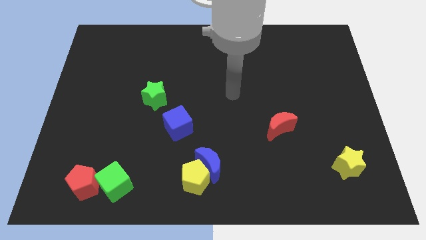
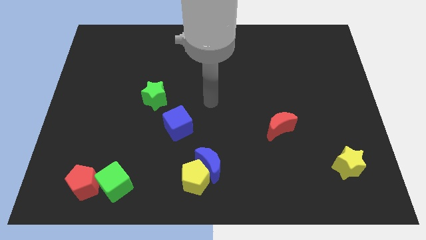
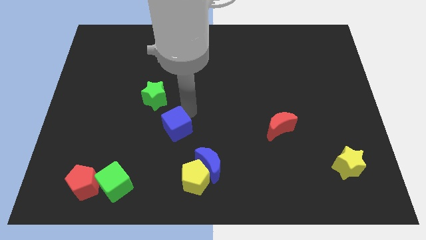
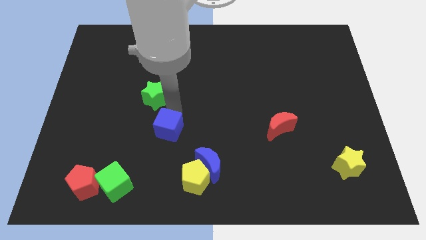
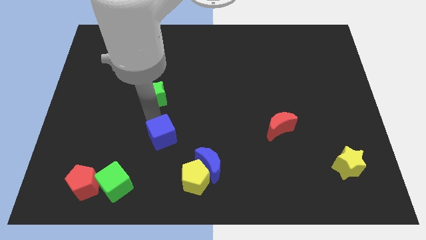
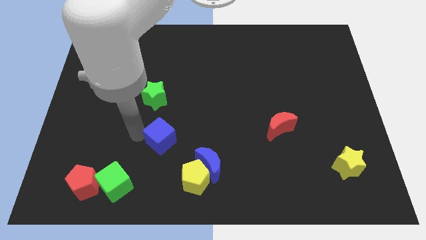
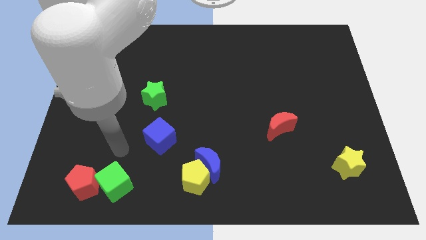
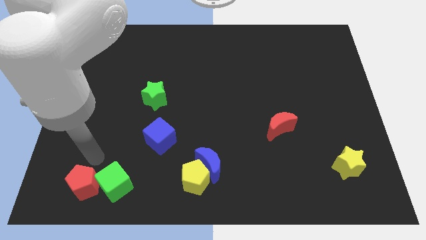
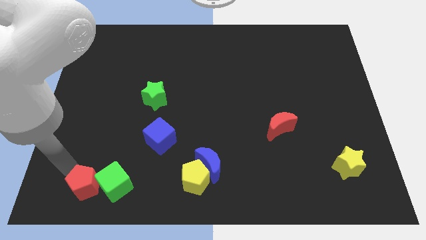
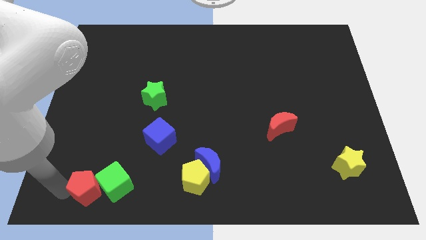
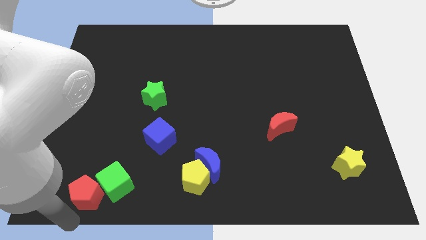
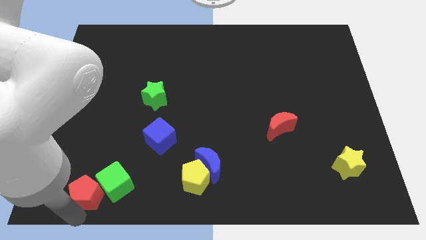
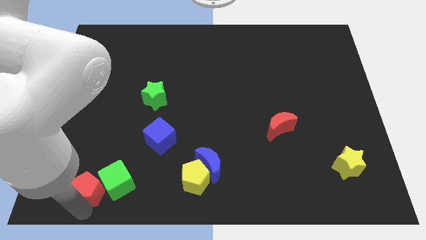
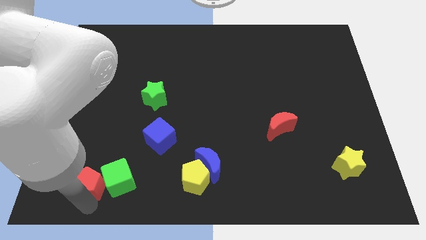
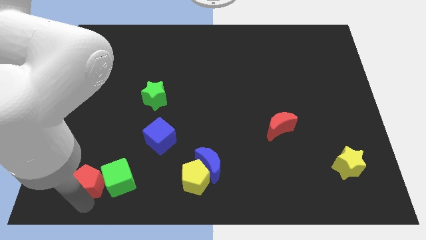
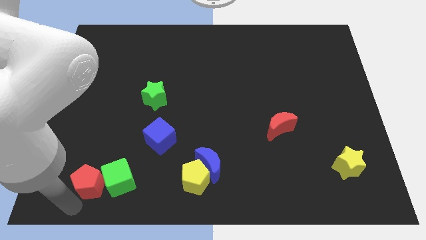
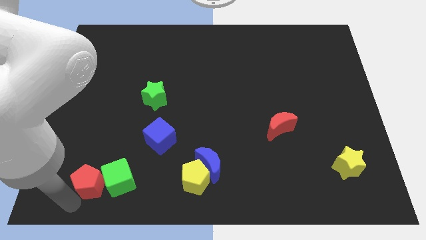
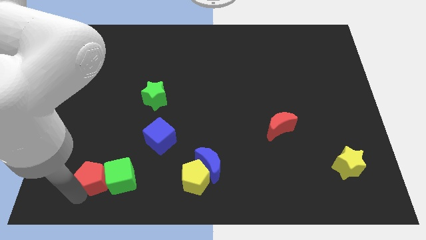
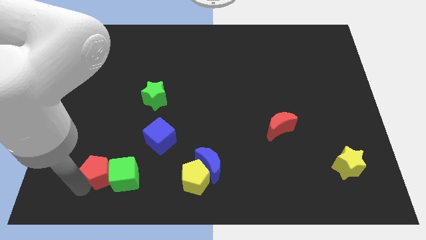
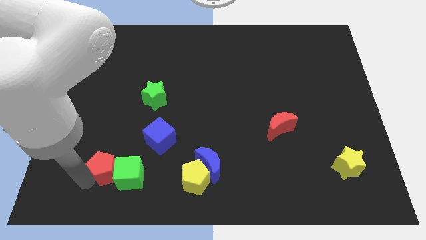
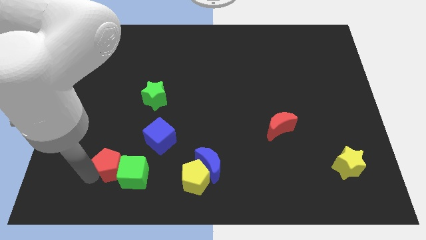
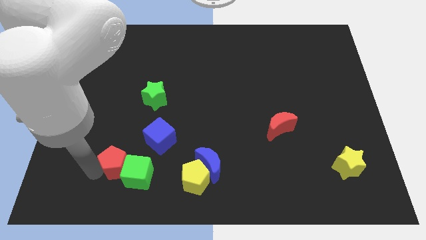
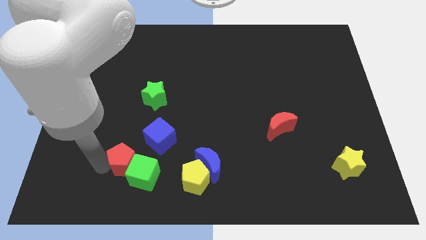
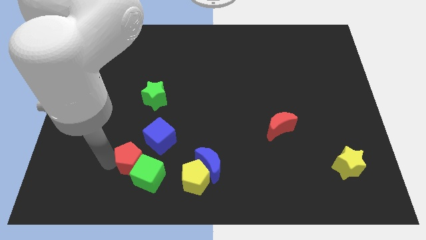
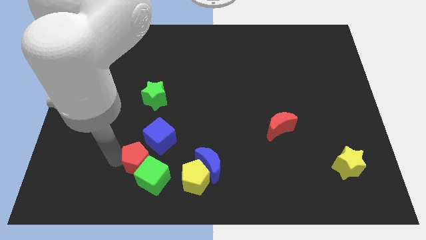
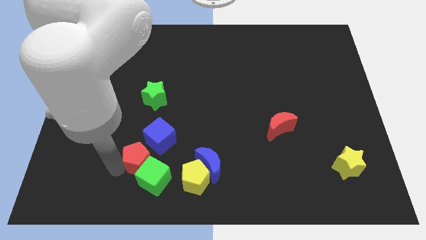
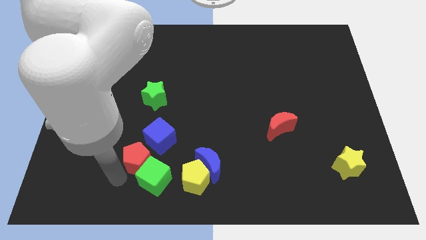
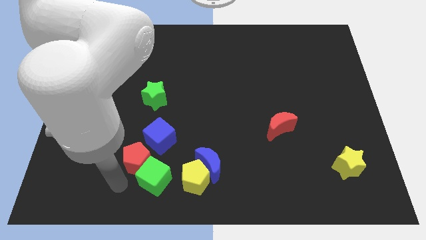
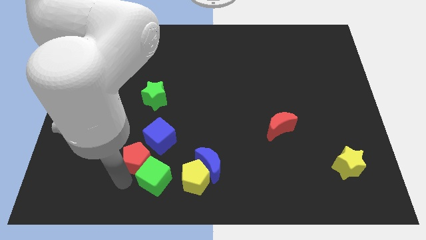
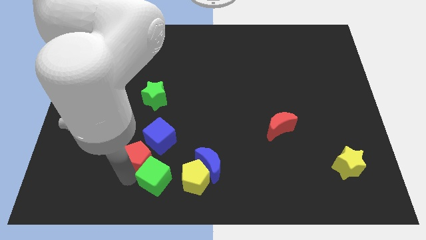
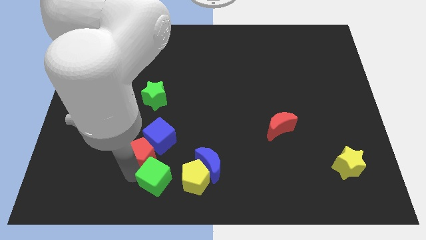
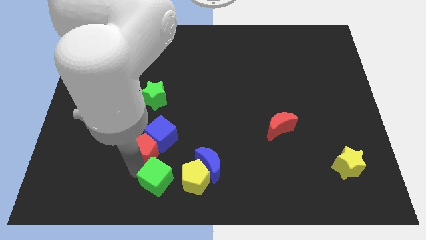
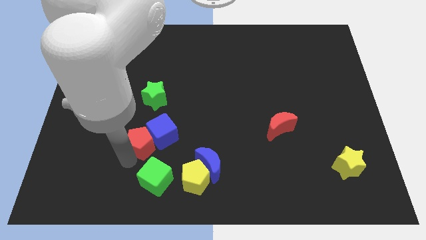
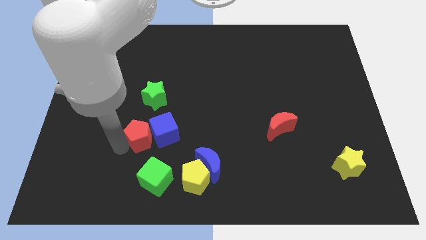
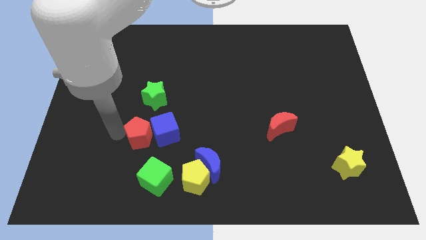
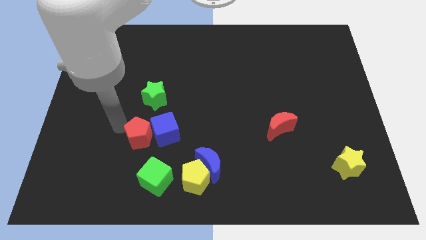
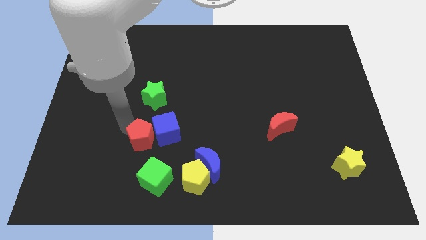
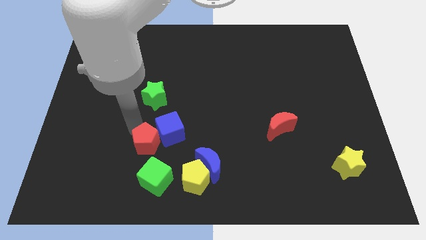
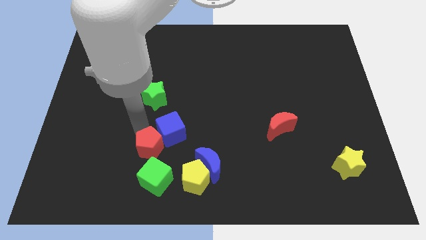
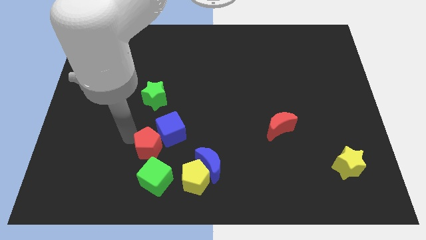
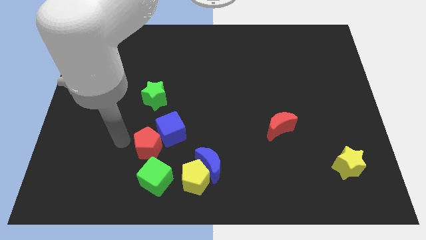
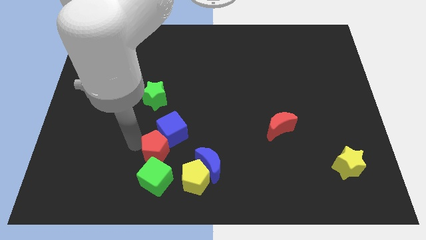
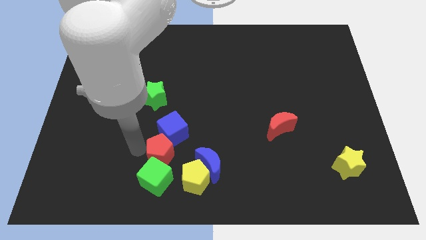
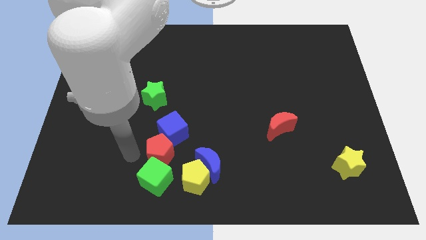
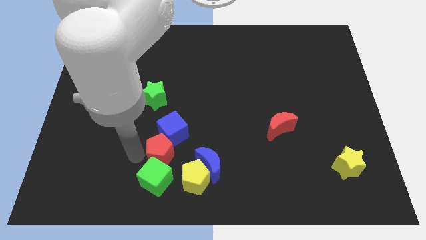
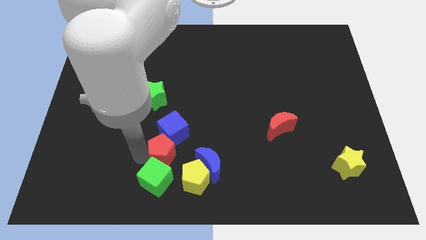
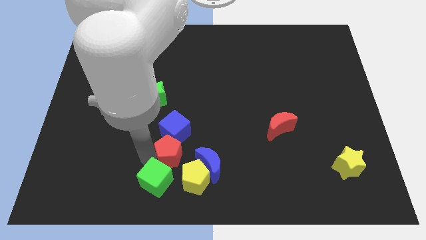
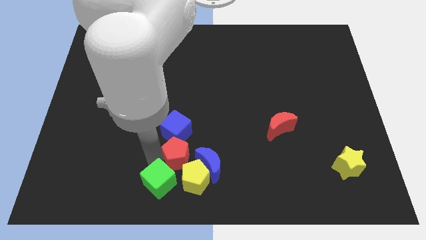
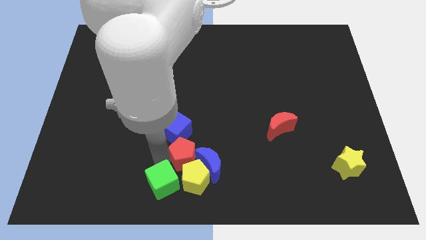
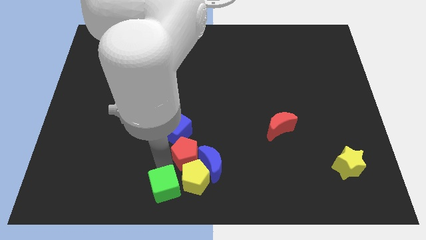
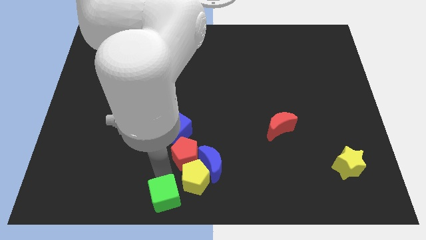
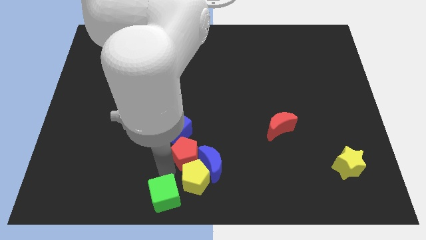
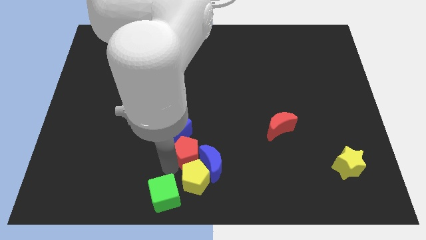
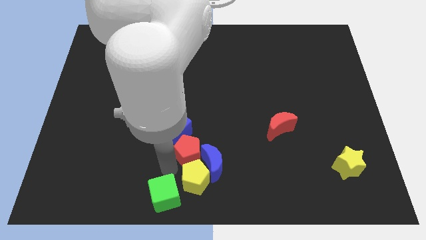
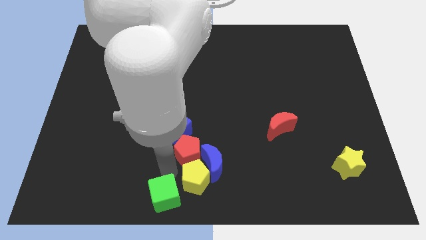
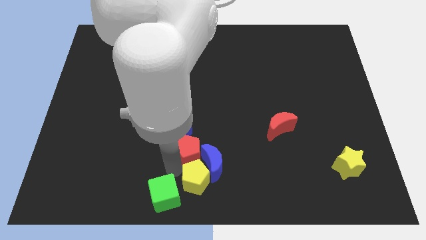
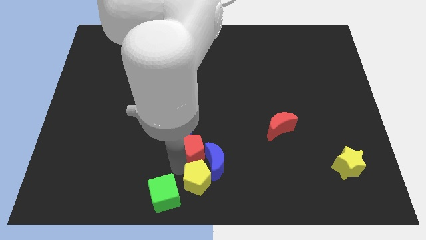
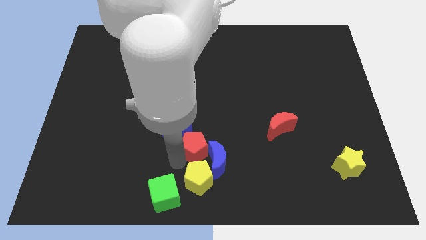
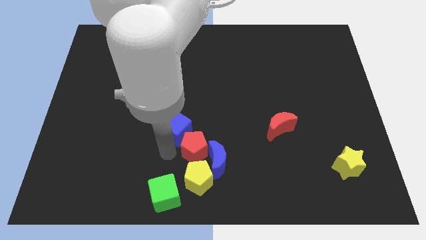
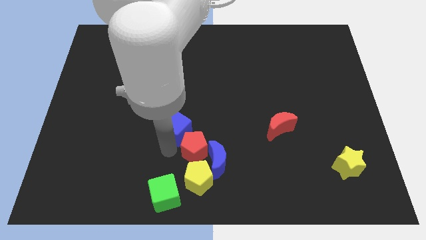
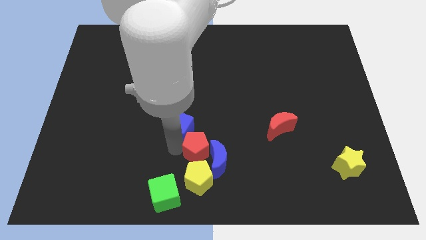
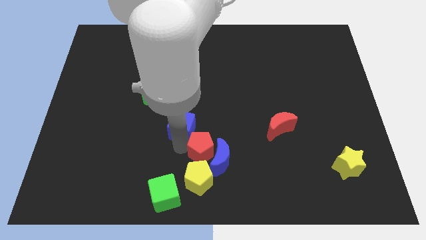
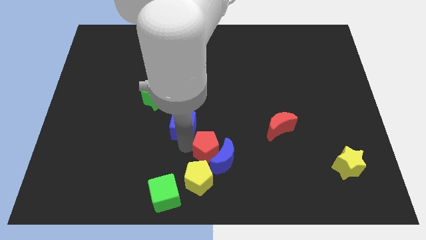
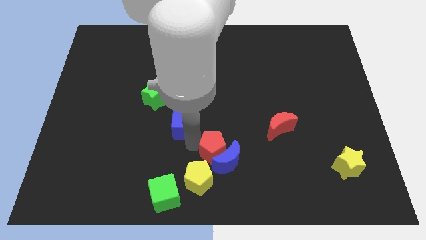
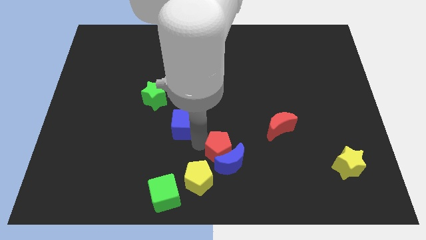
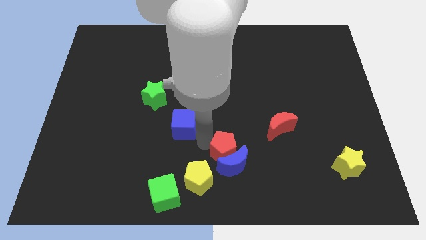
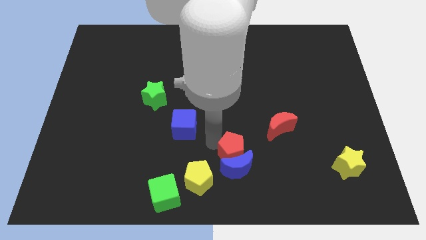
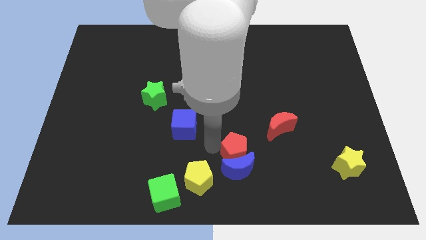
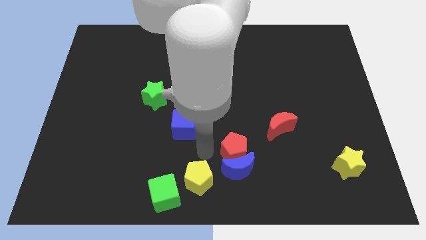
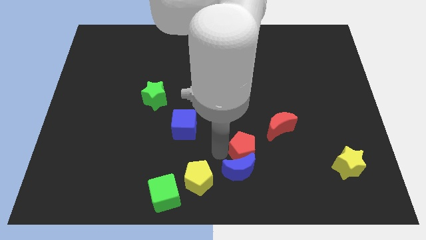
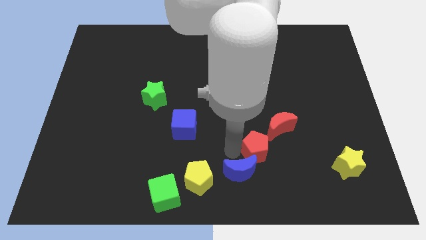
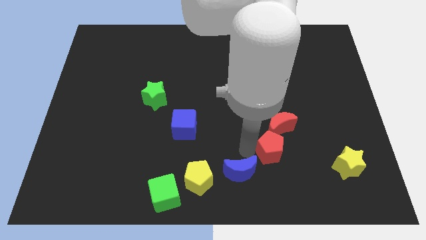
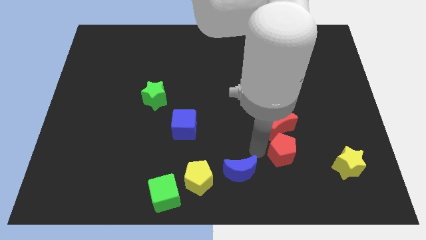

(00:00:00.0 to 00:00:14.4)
push the red pentagon diagonally down and to the right of the red moon

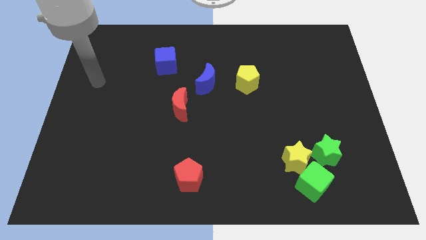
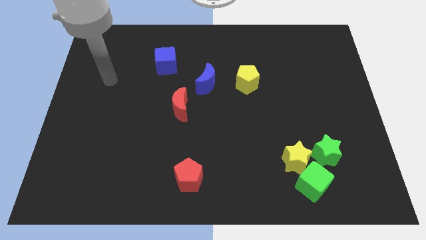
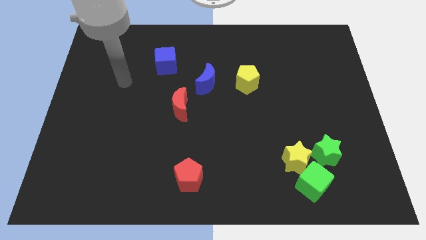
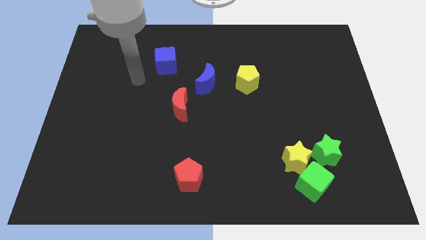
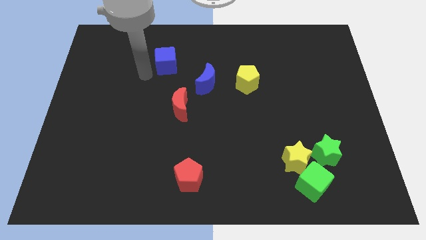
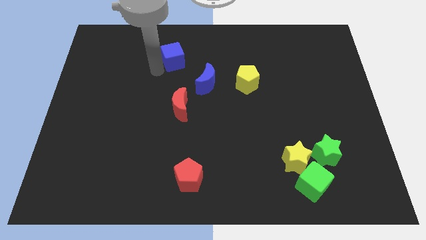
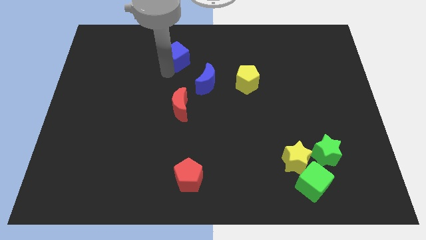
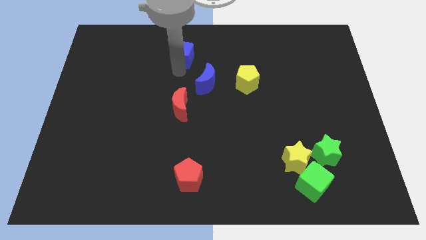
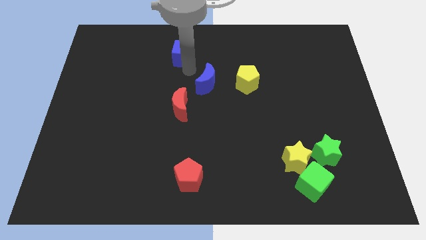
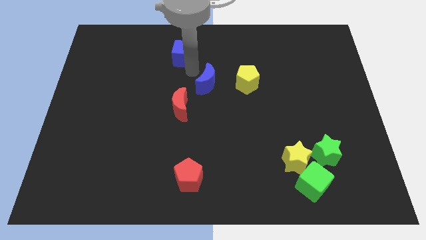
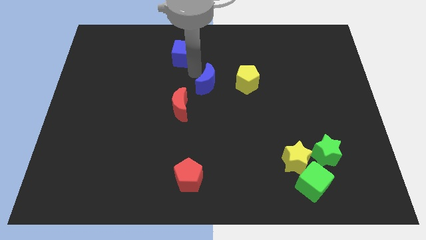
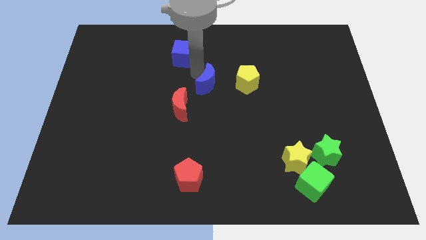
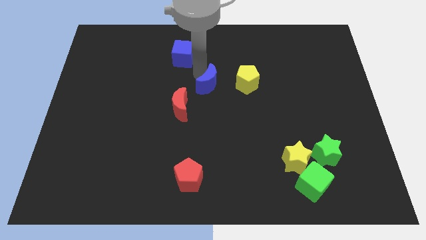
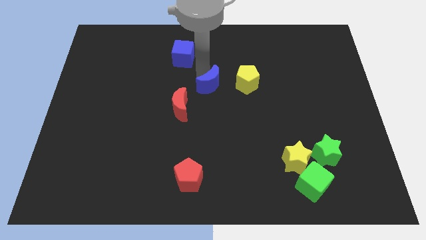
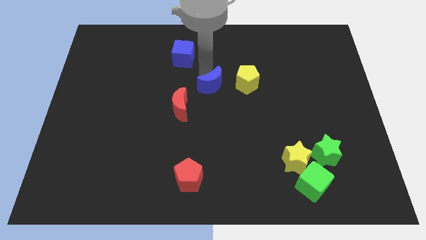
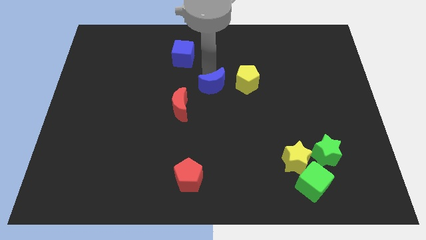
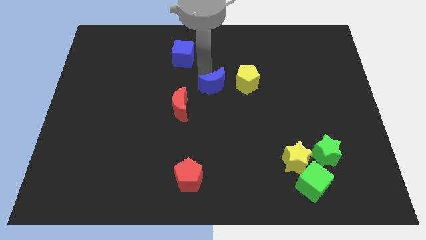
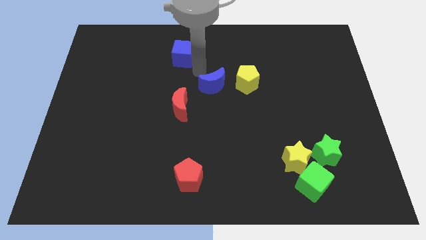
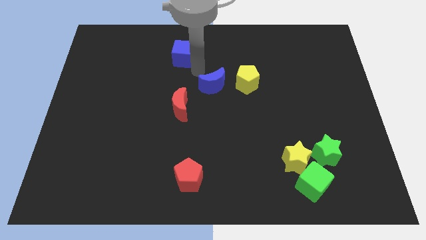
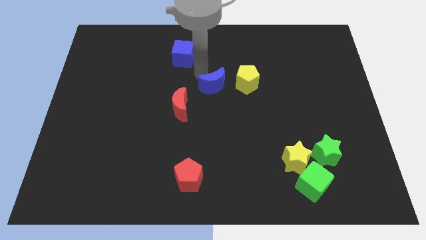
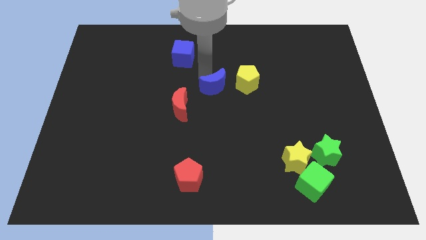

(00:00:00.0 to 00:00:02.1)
push the blue moon diagonally down and to the left of the yellow pentagon
